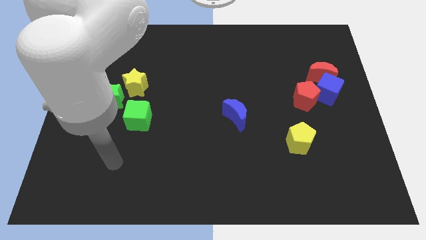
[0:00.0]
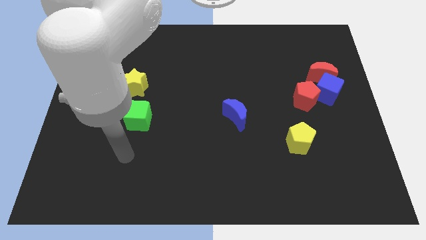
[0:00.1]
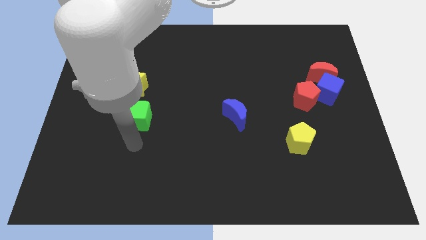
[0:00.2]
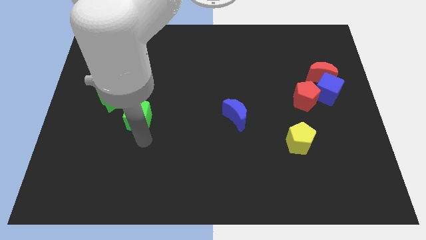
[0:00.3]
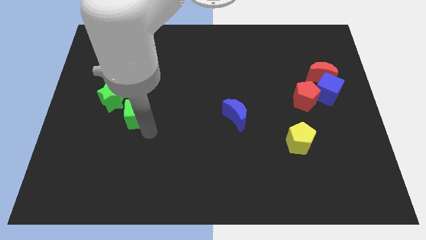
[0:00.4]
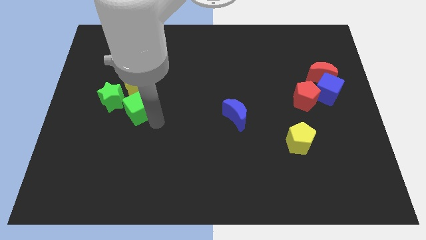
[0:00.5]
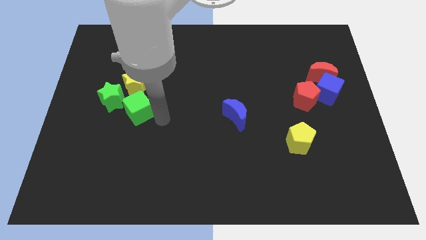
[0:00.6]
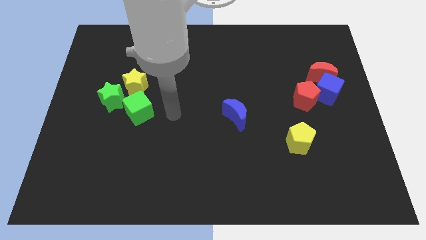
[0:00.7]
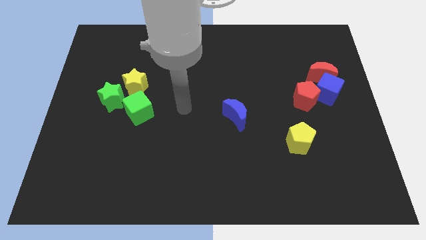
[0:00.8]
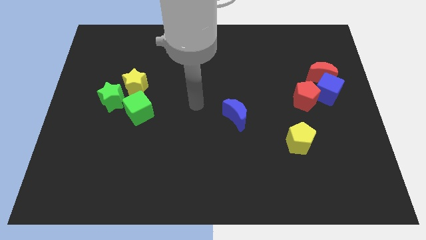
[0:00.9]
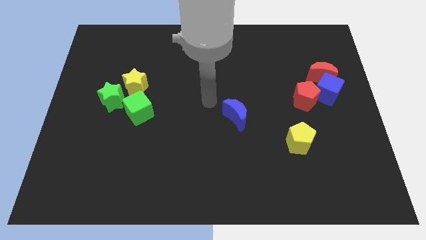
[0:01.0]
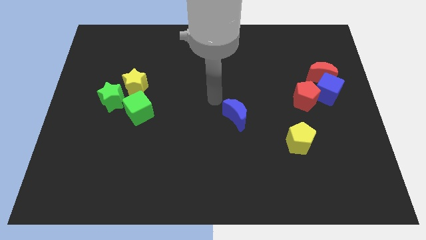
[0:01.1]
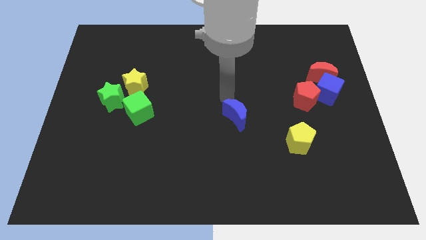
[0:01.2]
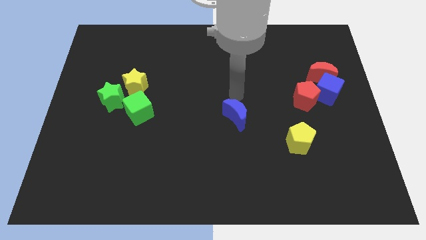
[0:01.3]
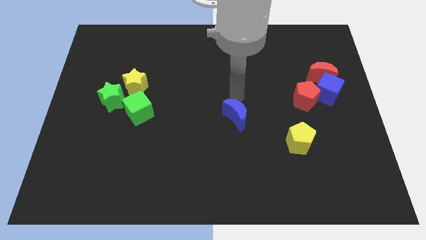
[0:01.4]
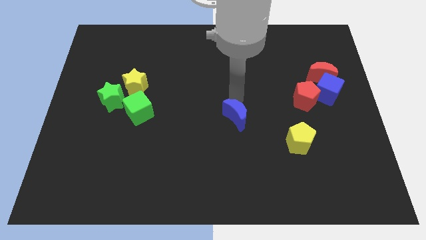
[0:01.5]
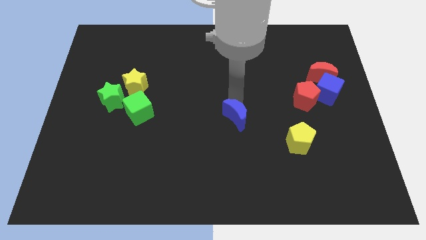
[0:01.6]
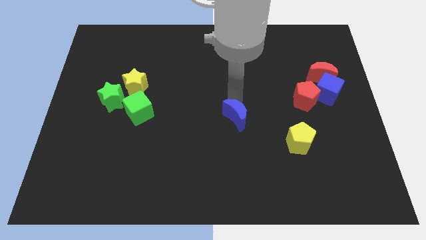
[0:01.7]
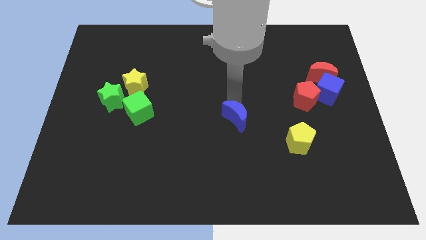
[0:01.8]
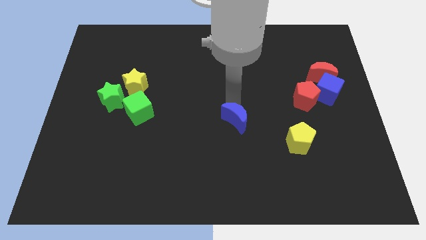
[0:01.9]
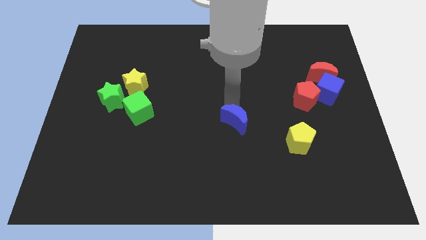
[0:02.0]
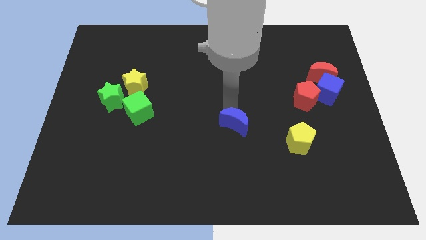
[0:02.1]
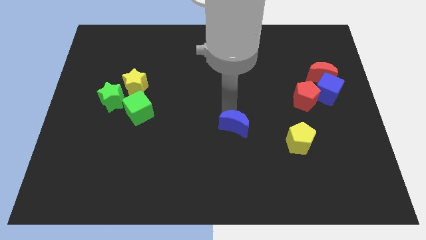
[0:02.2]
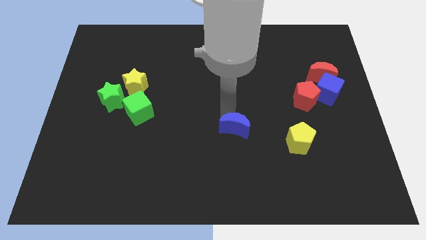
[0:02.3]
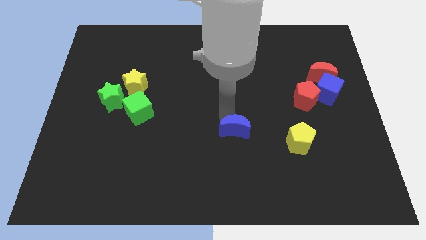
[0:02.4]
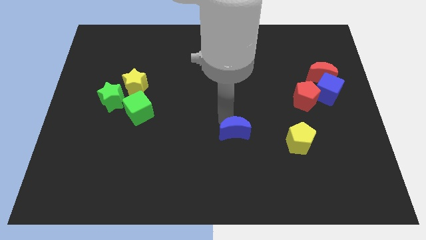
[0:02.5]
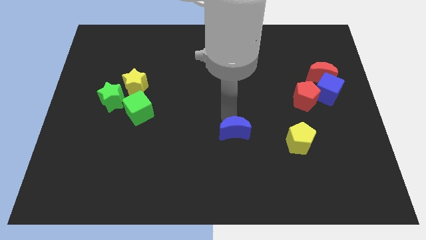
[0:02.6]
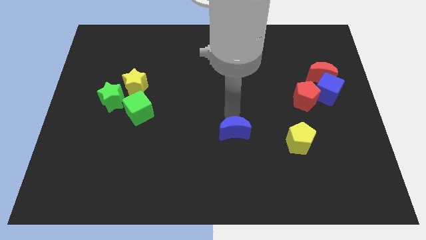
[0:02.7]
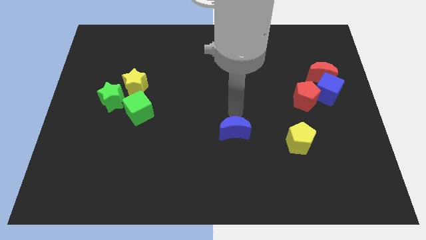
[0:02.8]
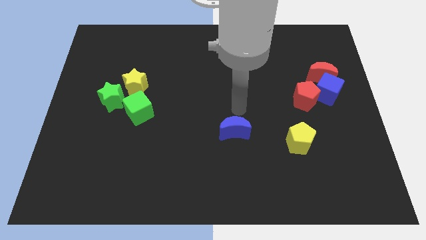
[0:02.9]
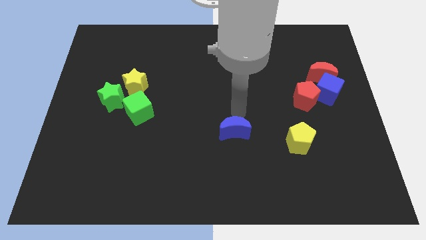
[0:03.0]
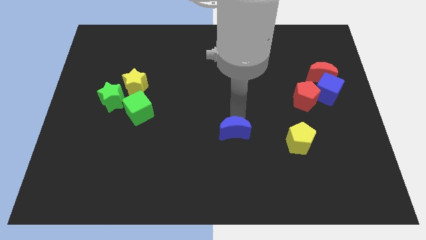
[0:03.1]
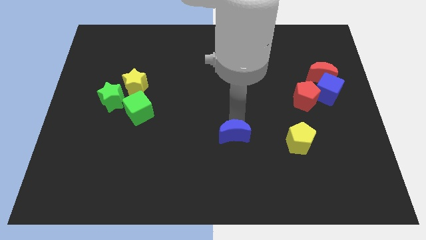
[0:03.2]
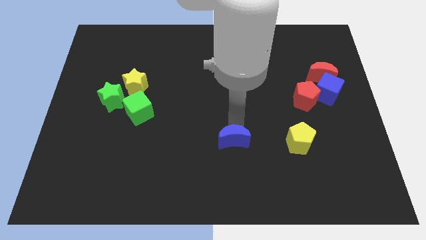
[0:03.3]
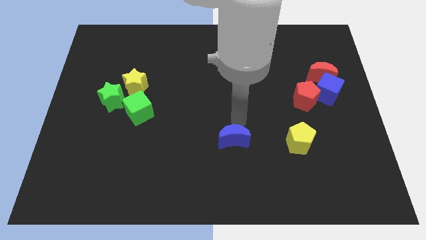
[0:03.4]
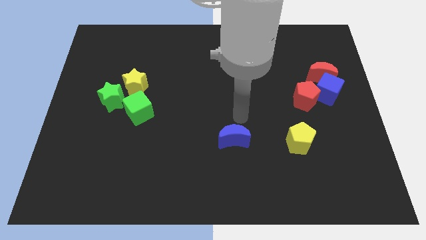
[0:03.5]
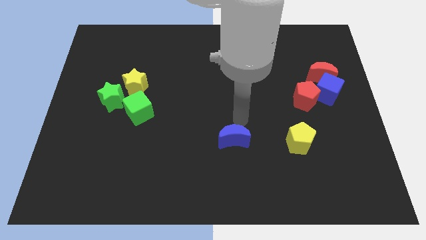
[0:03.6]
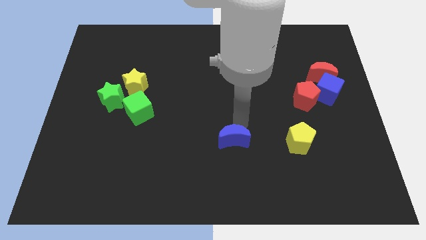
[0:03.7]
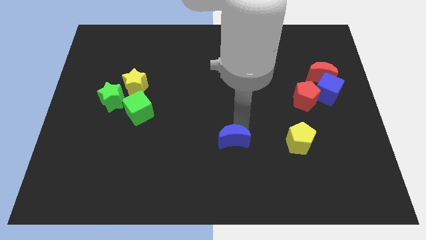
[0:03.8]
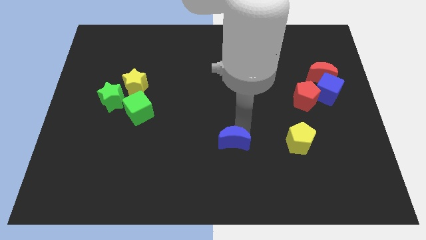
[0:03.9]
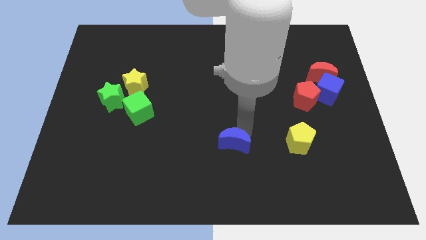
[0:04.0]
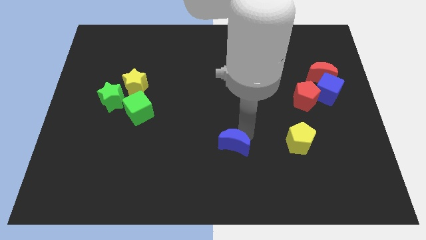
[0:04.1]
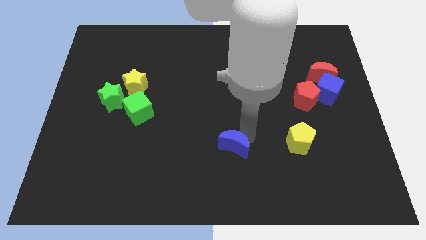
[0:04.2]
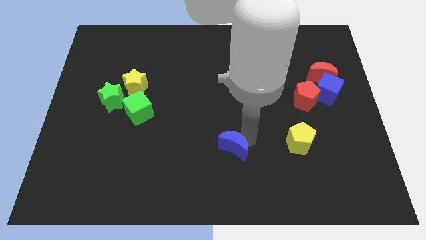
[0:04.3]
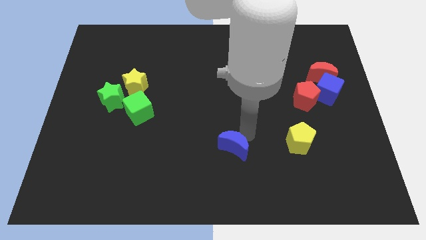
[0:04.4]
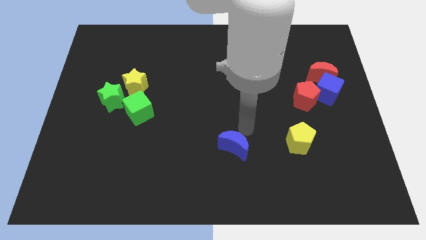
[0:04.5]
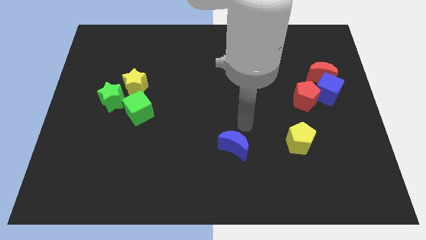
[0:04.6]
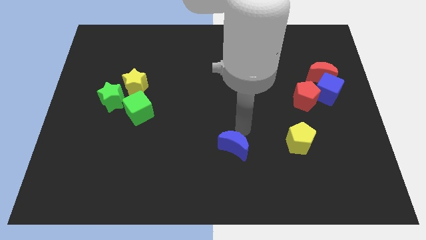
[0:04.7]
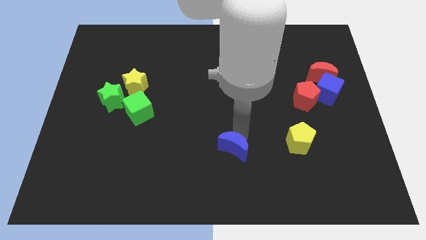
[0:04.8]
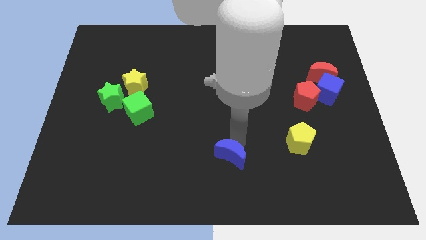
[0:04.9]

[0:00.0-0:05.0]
put the blue moon to the bottom side

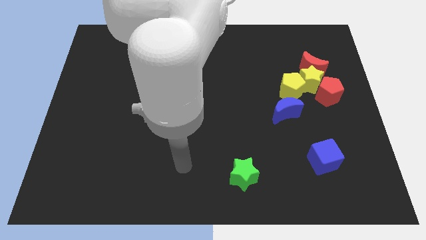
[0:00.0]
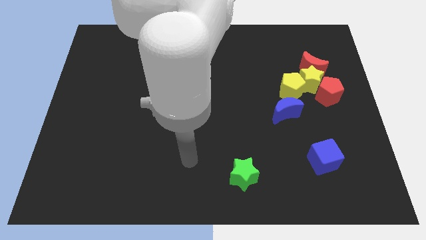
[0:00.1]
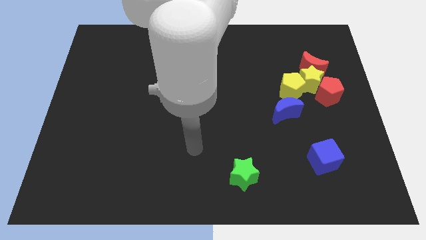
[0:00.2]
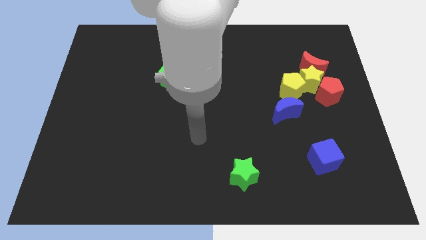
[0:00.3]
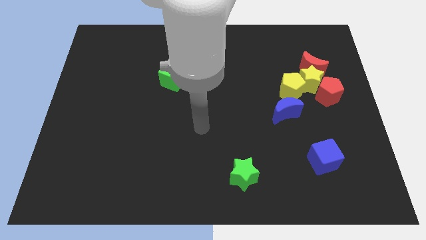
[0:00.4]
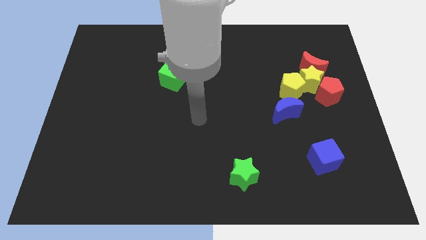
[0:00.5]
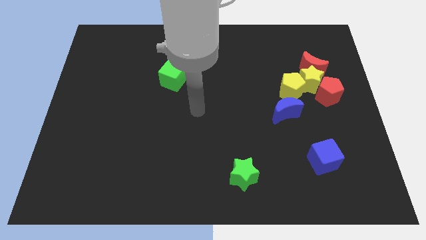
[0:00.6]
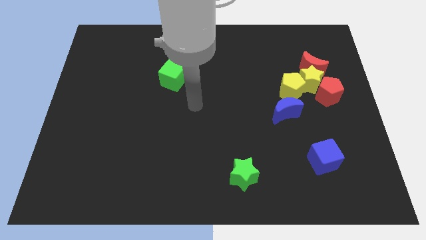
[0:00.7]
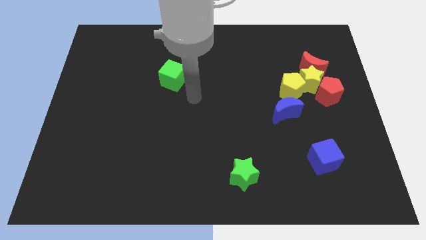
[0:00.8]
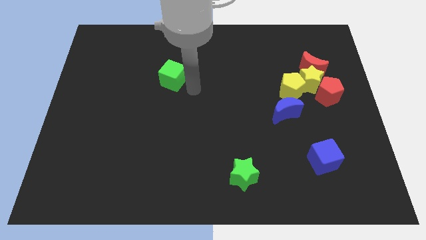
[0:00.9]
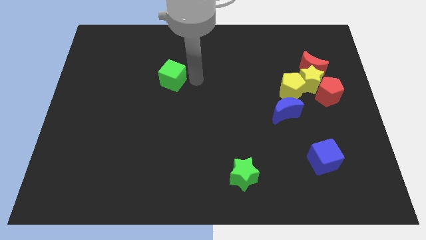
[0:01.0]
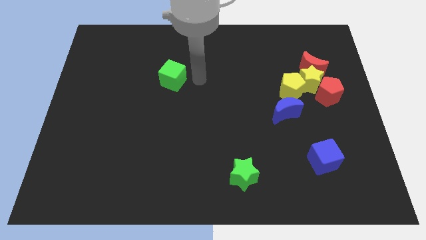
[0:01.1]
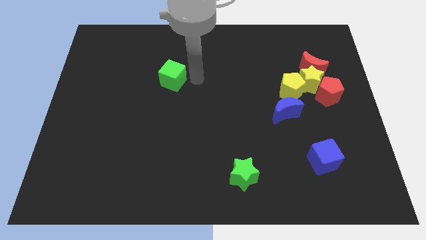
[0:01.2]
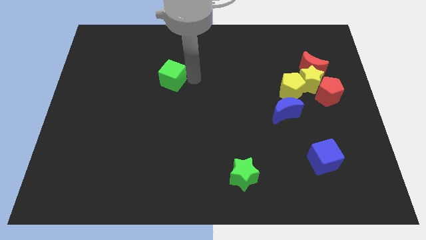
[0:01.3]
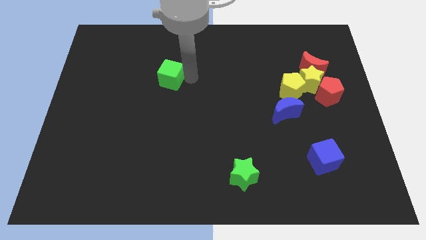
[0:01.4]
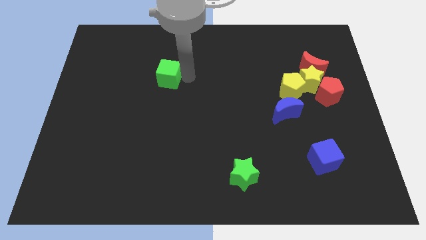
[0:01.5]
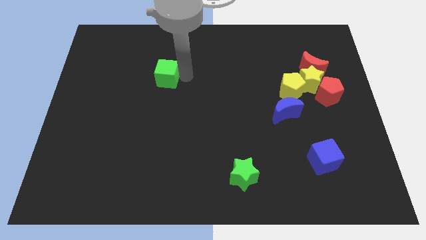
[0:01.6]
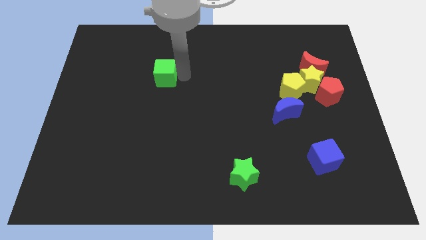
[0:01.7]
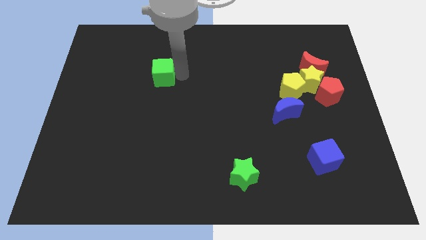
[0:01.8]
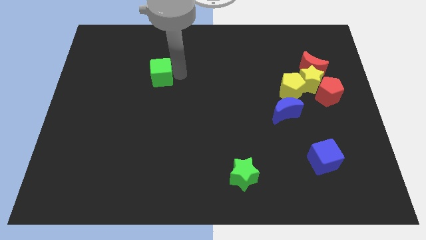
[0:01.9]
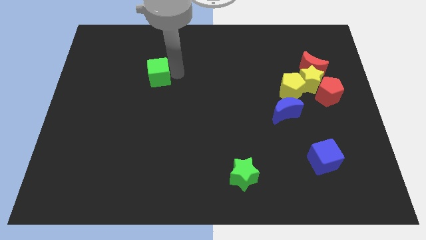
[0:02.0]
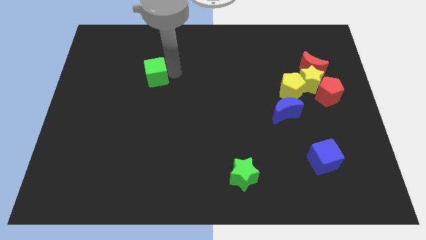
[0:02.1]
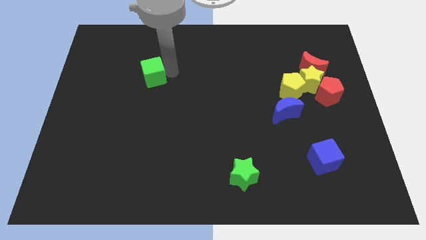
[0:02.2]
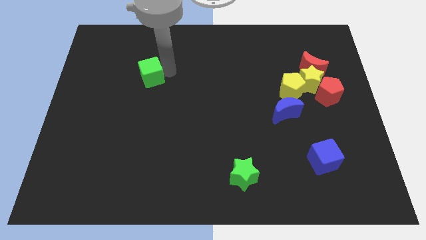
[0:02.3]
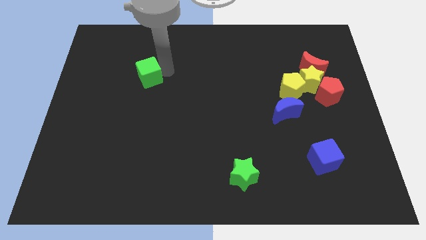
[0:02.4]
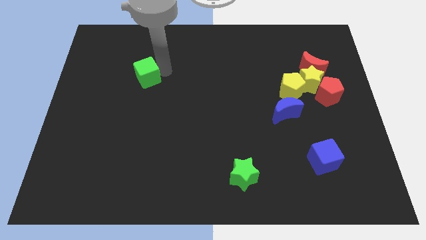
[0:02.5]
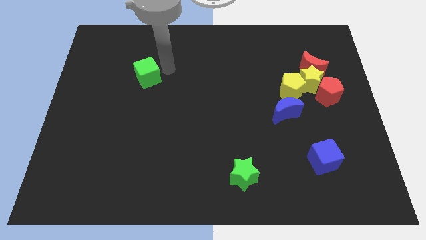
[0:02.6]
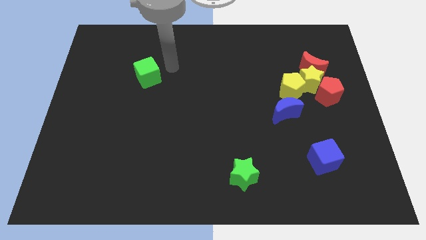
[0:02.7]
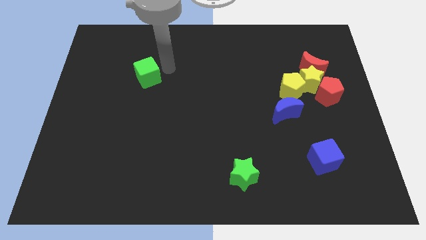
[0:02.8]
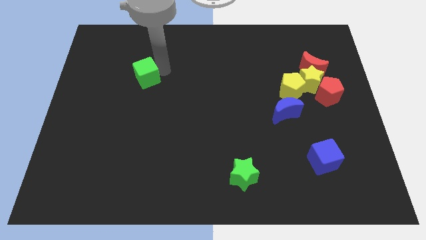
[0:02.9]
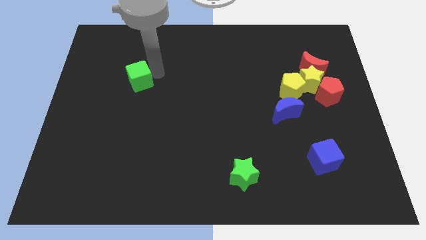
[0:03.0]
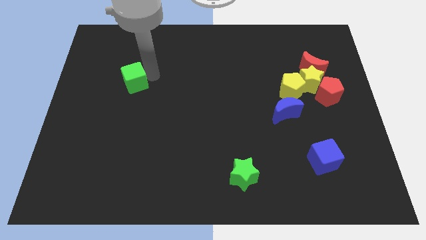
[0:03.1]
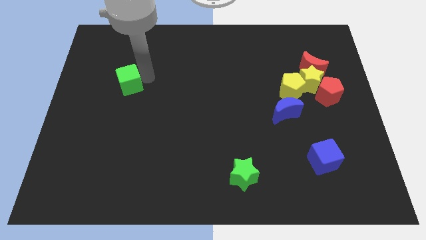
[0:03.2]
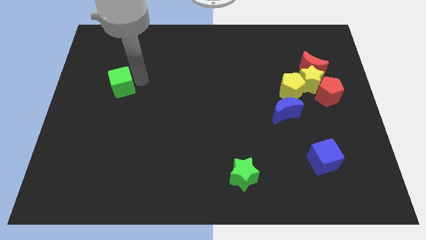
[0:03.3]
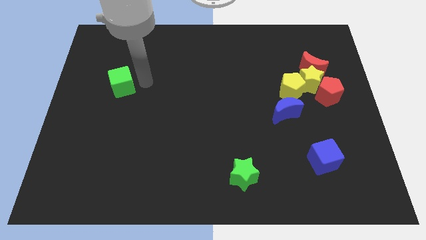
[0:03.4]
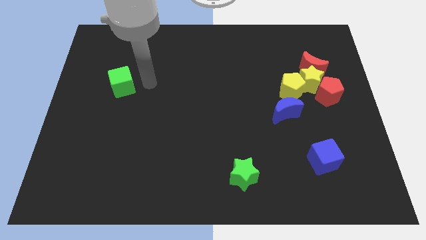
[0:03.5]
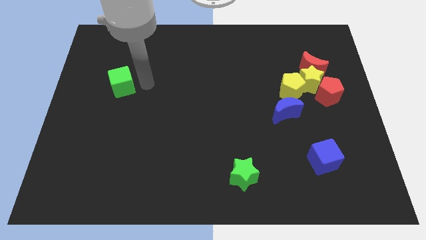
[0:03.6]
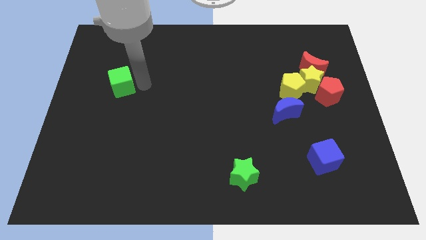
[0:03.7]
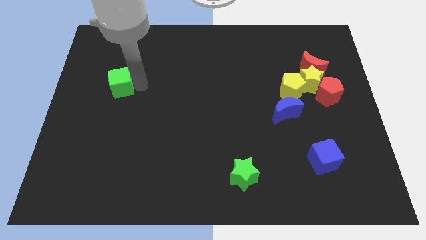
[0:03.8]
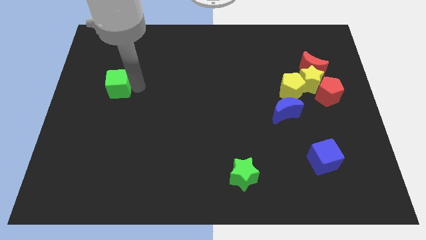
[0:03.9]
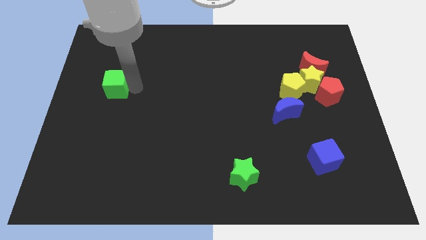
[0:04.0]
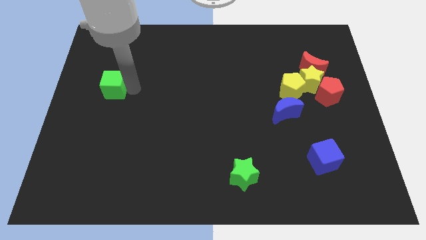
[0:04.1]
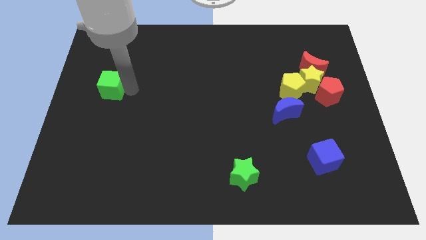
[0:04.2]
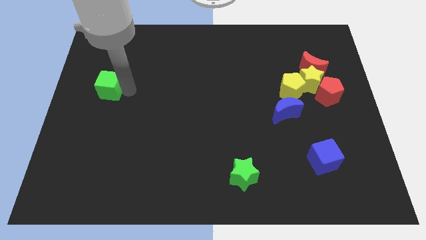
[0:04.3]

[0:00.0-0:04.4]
move the green cube to the center left
